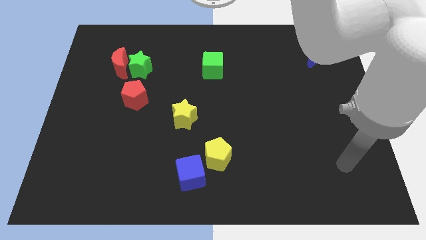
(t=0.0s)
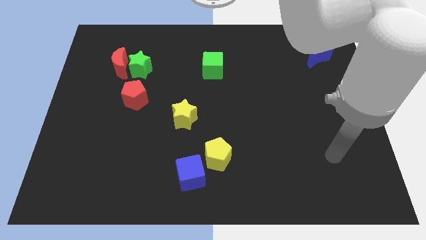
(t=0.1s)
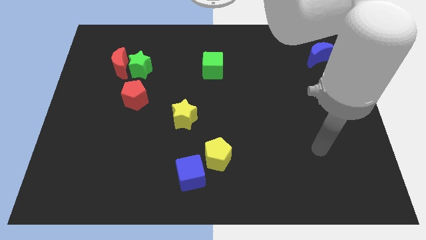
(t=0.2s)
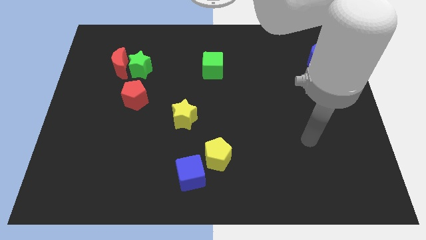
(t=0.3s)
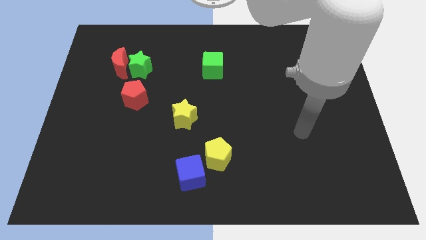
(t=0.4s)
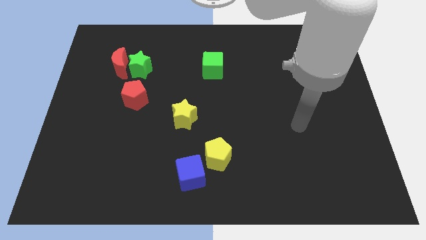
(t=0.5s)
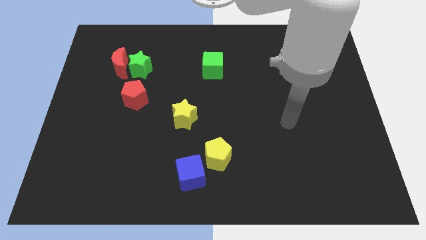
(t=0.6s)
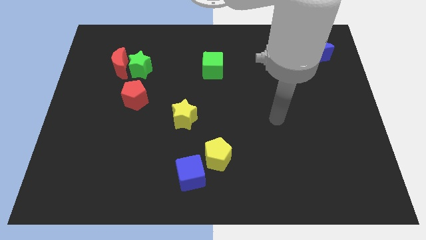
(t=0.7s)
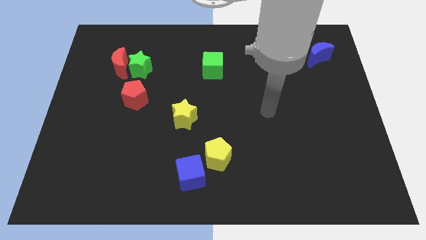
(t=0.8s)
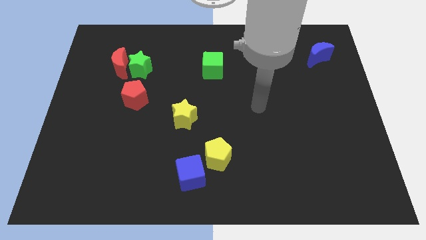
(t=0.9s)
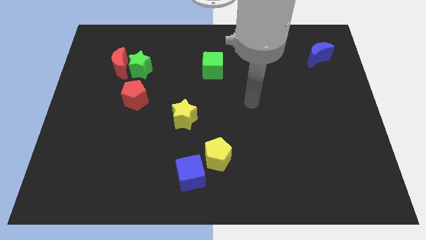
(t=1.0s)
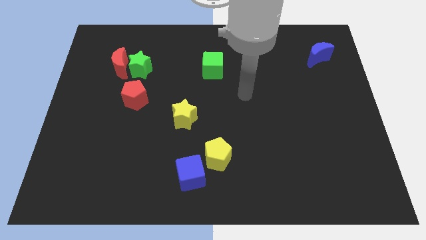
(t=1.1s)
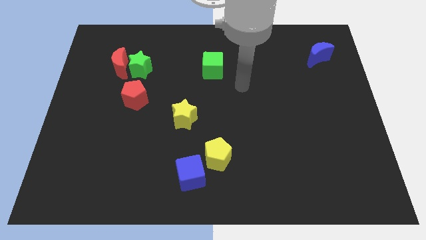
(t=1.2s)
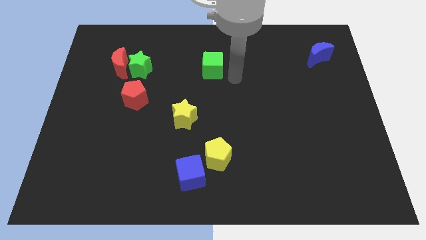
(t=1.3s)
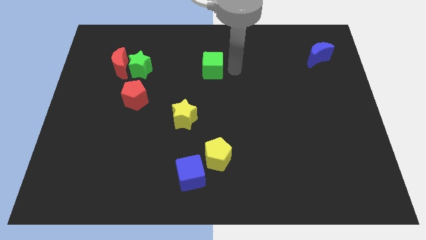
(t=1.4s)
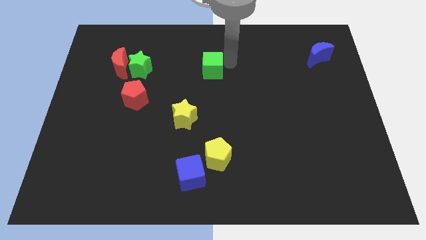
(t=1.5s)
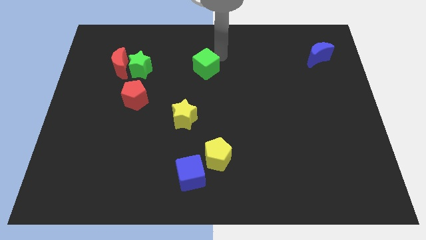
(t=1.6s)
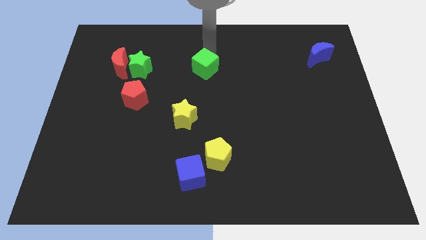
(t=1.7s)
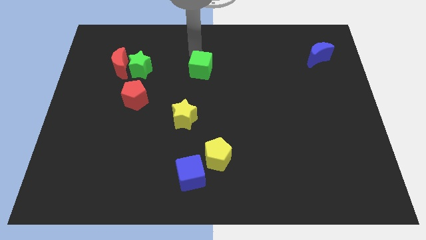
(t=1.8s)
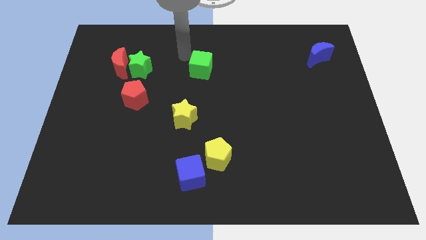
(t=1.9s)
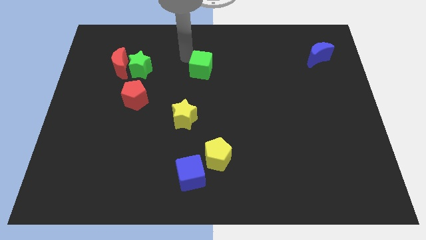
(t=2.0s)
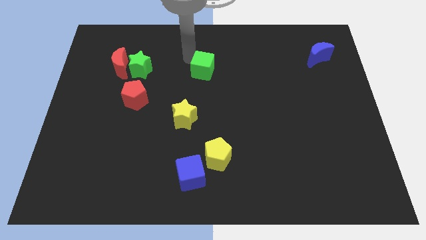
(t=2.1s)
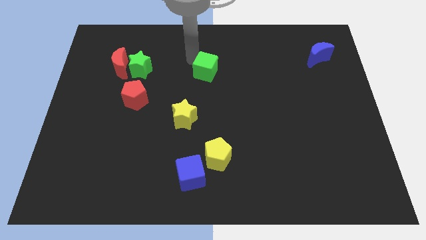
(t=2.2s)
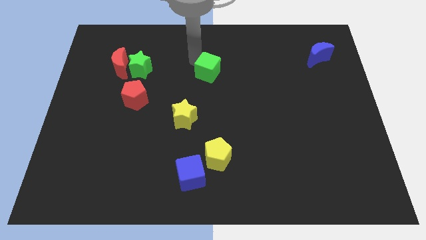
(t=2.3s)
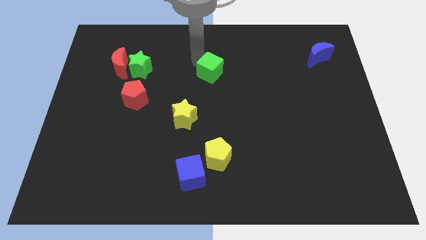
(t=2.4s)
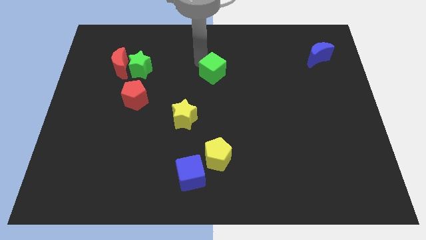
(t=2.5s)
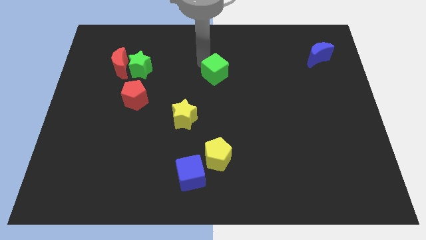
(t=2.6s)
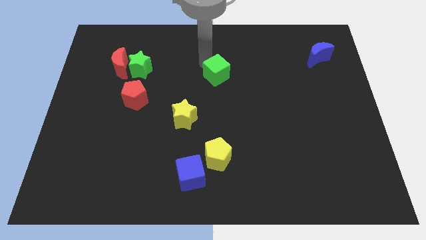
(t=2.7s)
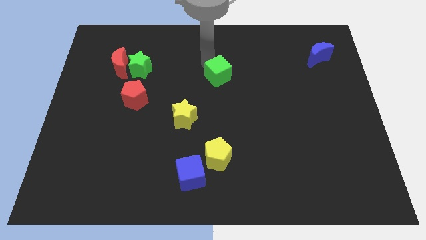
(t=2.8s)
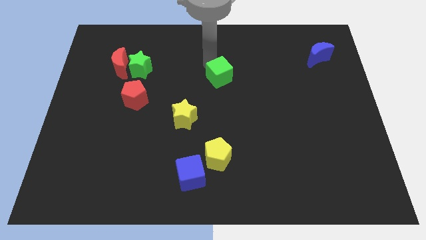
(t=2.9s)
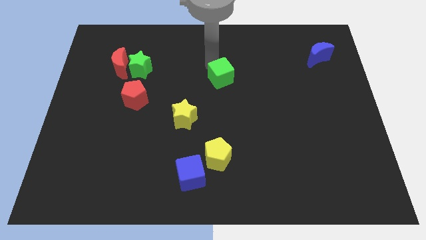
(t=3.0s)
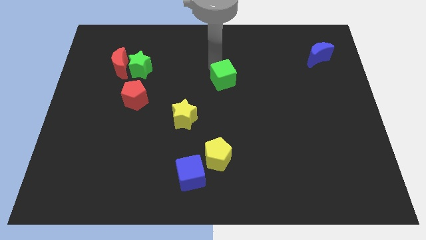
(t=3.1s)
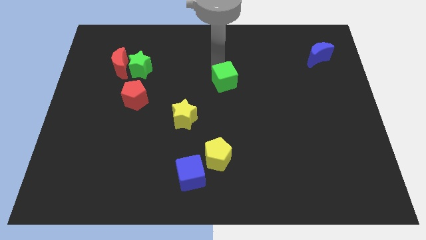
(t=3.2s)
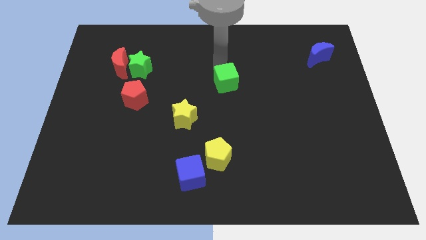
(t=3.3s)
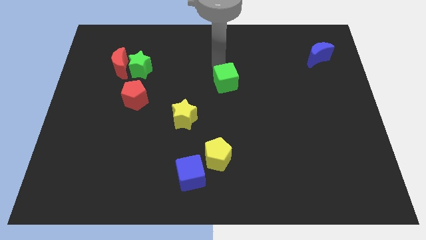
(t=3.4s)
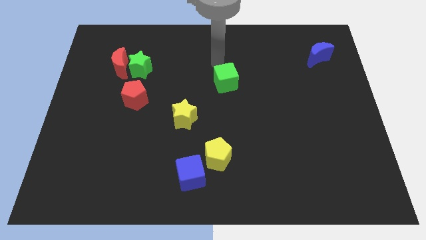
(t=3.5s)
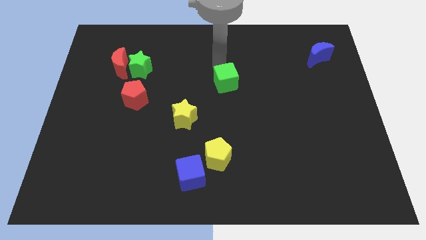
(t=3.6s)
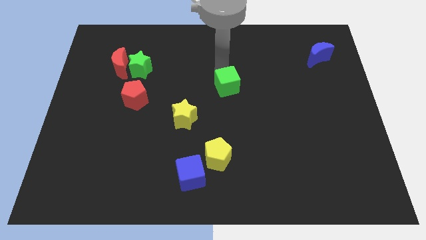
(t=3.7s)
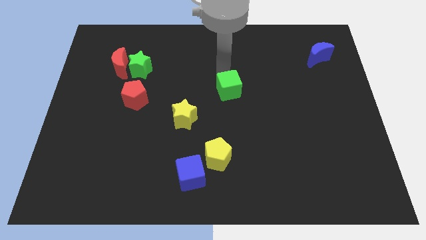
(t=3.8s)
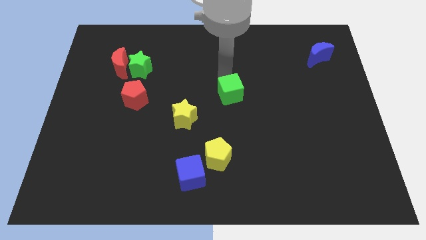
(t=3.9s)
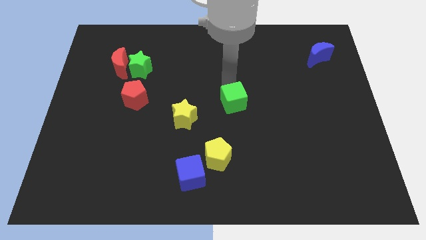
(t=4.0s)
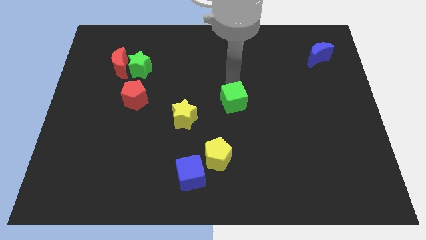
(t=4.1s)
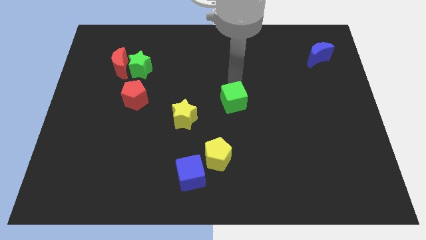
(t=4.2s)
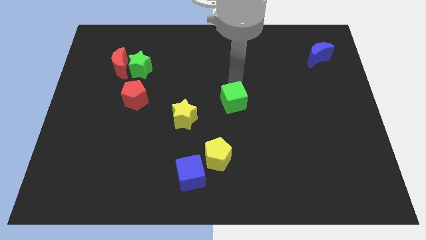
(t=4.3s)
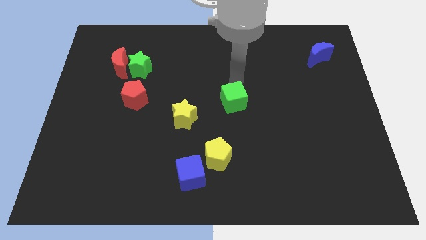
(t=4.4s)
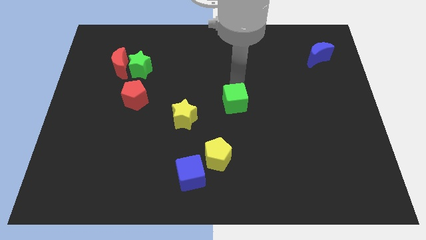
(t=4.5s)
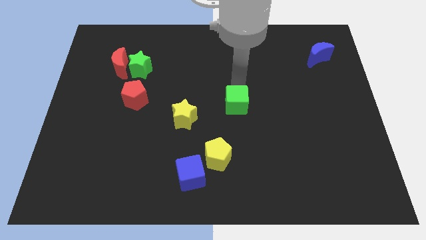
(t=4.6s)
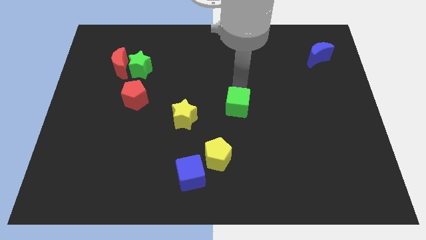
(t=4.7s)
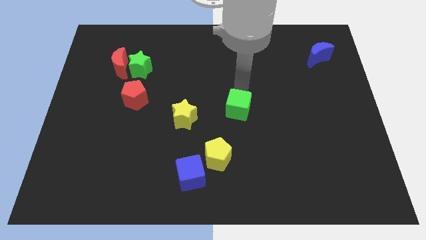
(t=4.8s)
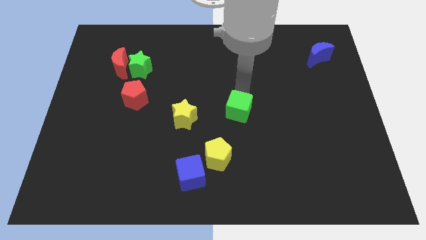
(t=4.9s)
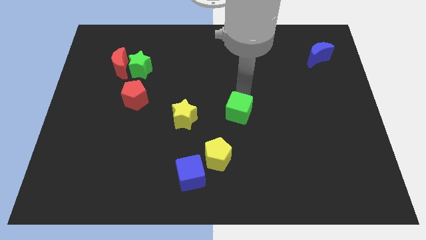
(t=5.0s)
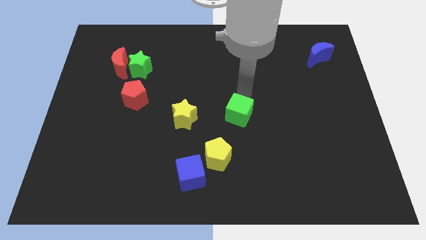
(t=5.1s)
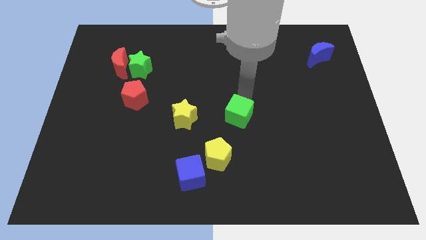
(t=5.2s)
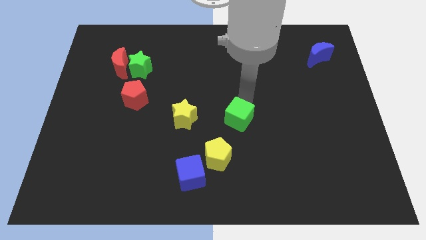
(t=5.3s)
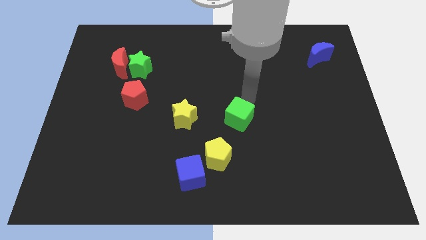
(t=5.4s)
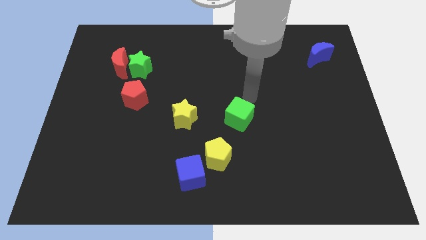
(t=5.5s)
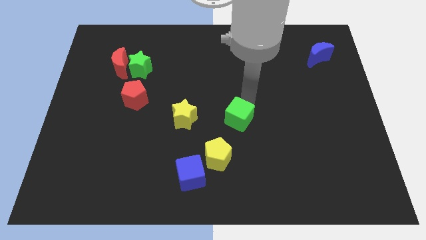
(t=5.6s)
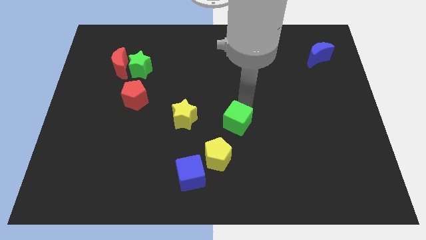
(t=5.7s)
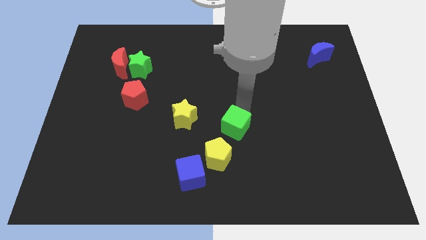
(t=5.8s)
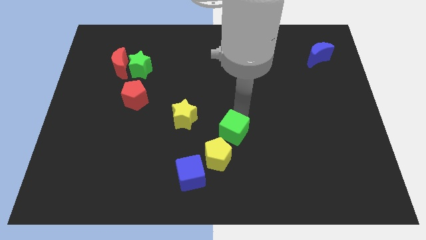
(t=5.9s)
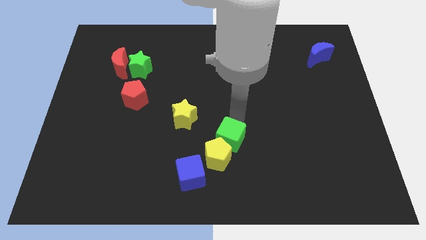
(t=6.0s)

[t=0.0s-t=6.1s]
push the green cube down

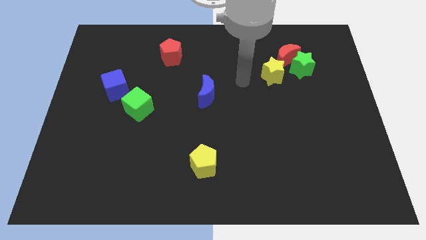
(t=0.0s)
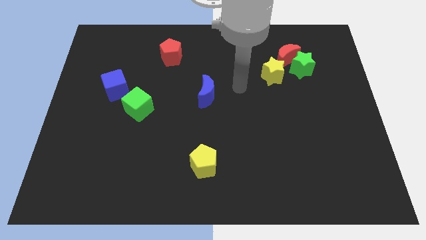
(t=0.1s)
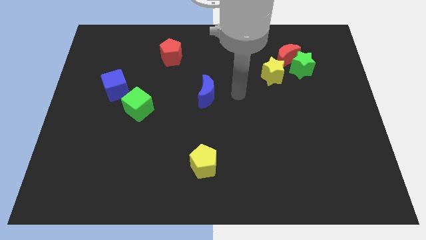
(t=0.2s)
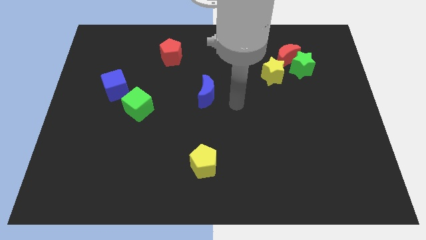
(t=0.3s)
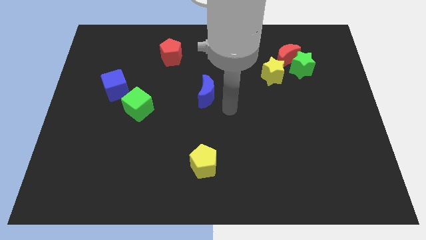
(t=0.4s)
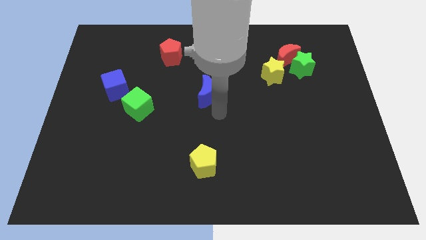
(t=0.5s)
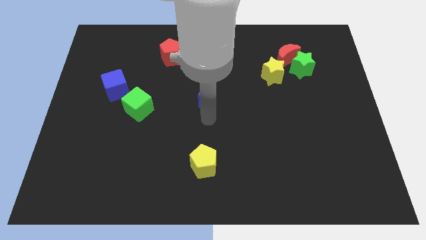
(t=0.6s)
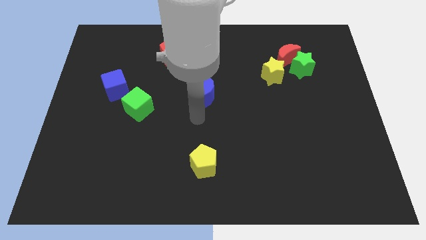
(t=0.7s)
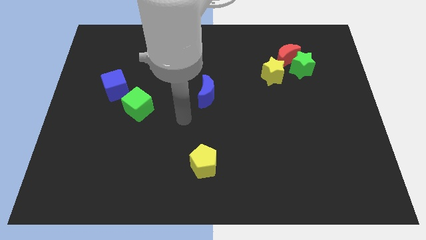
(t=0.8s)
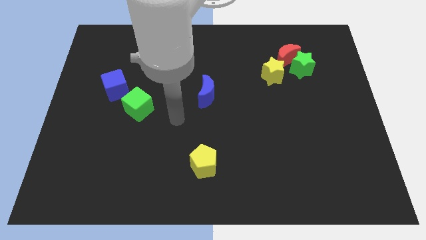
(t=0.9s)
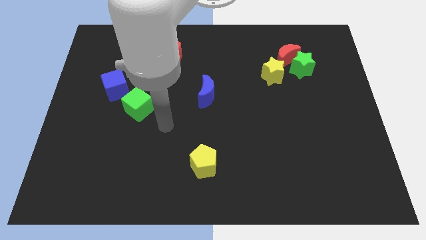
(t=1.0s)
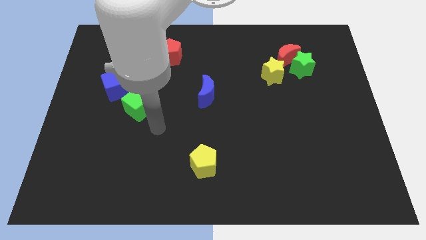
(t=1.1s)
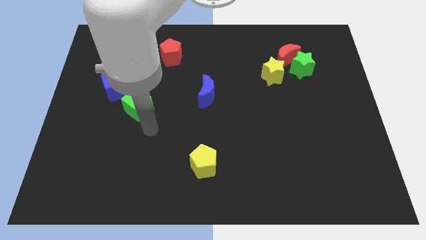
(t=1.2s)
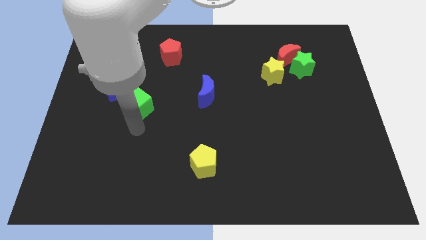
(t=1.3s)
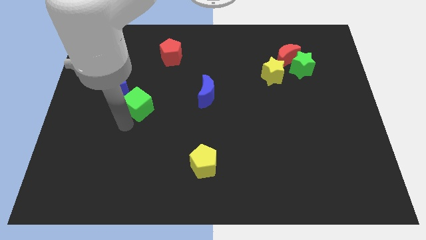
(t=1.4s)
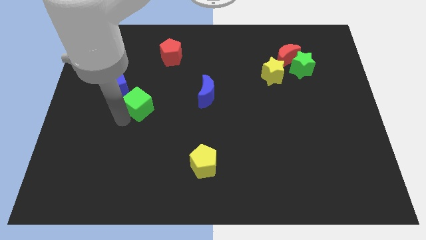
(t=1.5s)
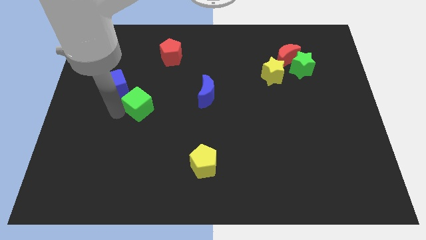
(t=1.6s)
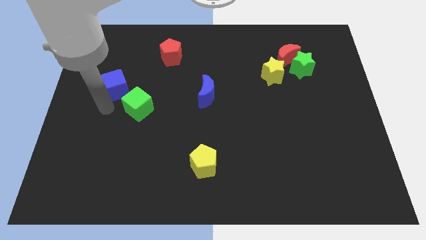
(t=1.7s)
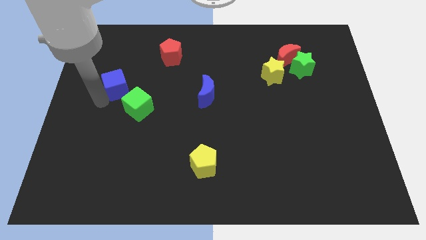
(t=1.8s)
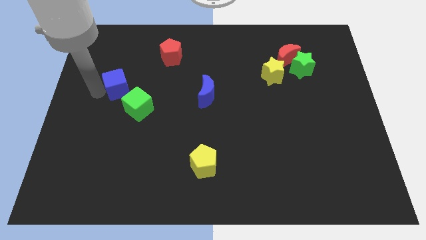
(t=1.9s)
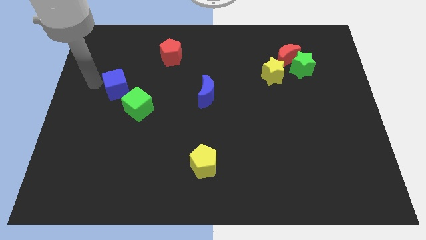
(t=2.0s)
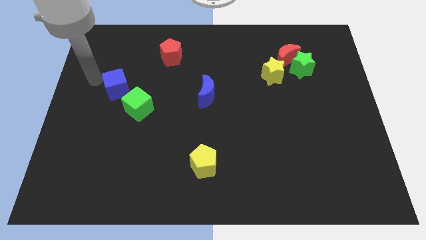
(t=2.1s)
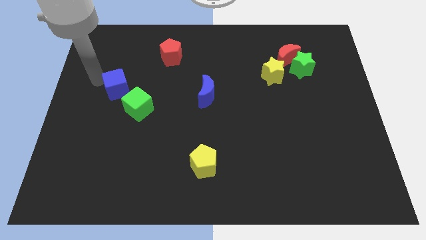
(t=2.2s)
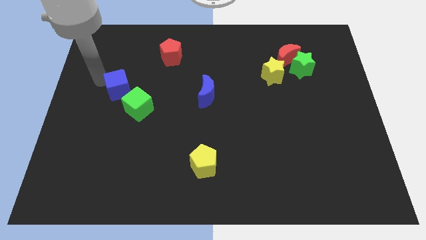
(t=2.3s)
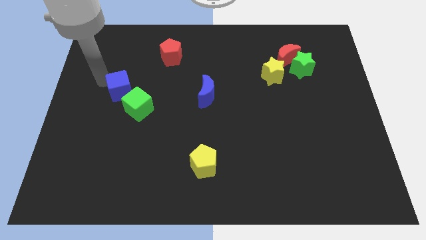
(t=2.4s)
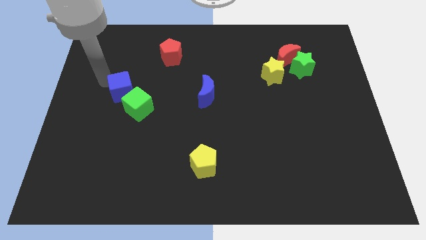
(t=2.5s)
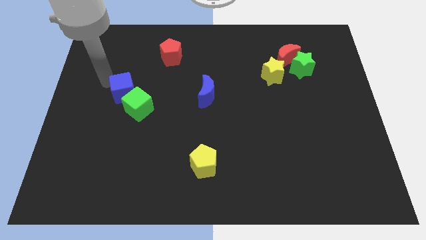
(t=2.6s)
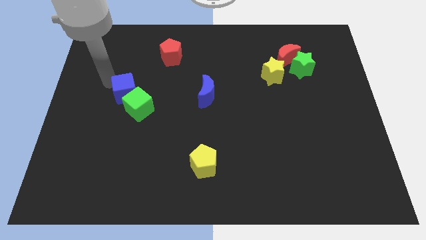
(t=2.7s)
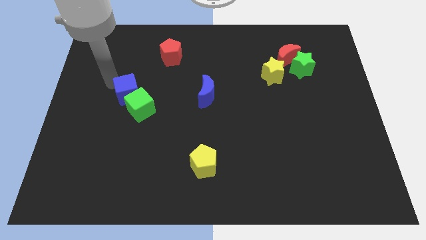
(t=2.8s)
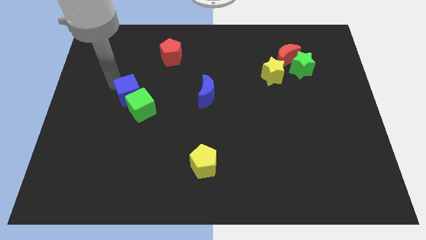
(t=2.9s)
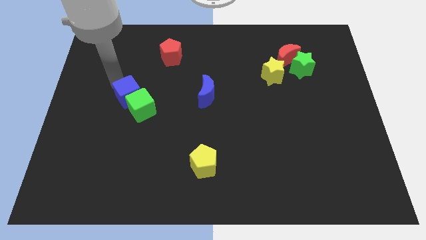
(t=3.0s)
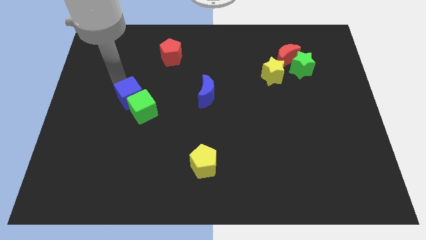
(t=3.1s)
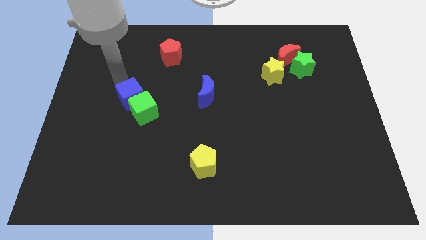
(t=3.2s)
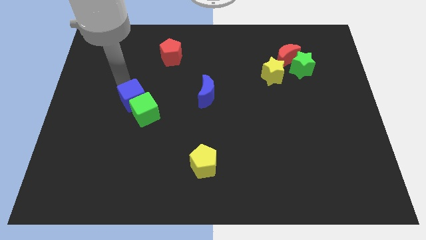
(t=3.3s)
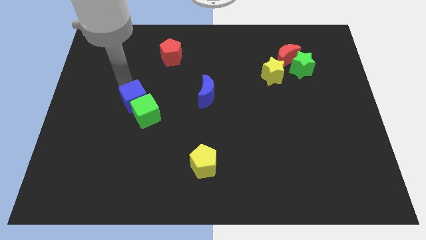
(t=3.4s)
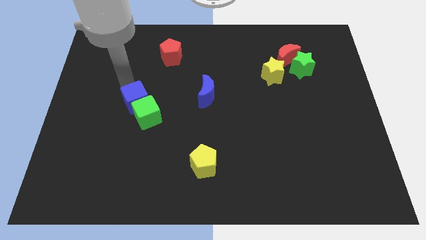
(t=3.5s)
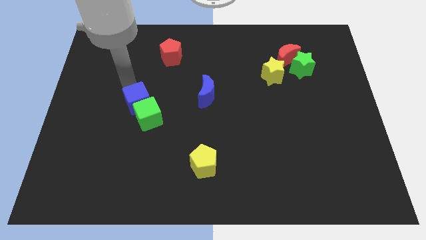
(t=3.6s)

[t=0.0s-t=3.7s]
slightly move the blue cube downwards and right diagonally
